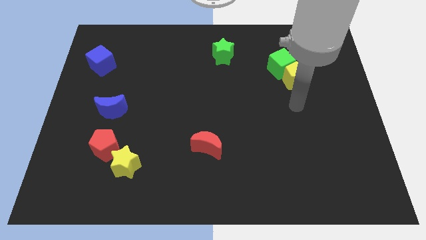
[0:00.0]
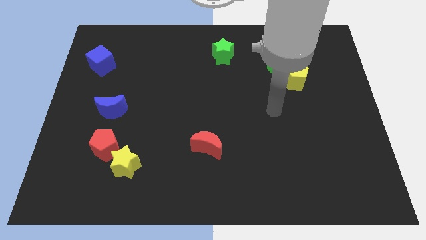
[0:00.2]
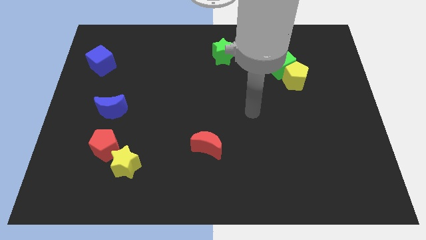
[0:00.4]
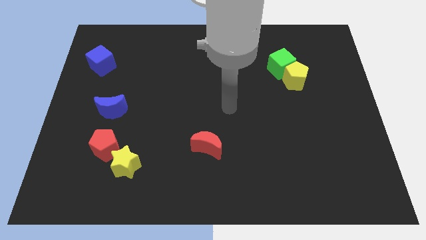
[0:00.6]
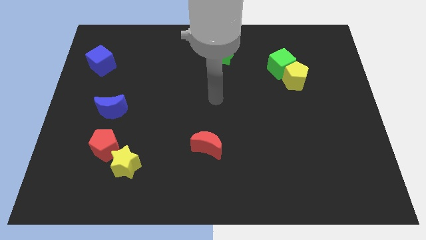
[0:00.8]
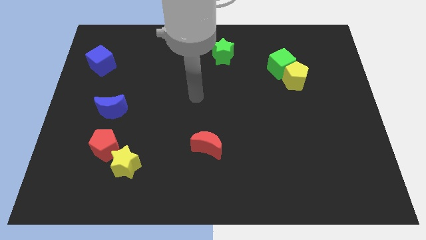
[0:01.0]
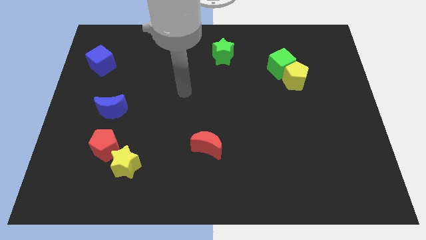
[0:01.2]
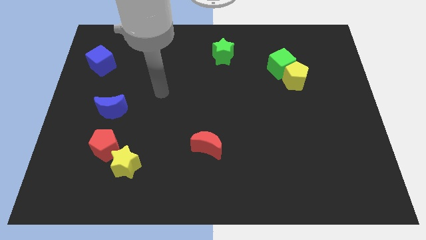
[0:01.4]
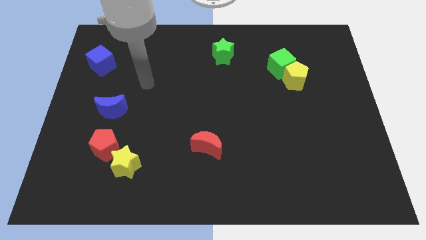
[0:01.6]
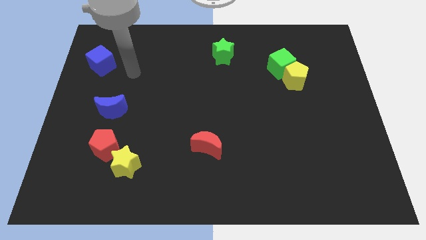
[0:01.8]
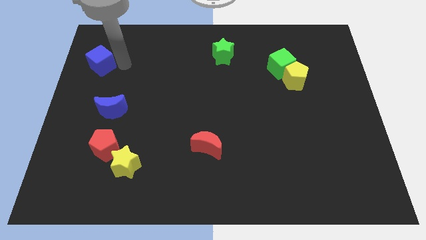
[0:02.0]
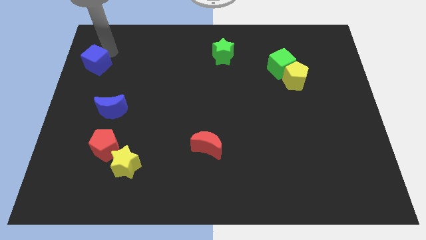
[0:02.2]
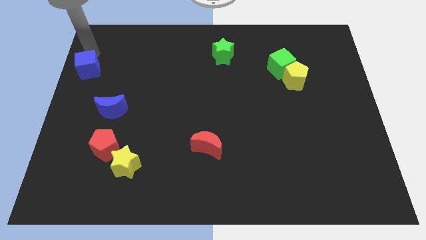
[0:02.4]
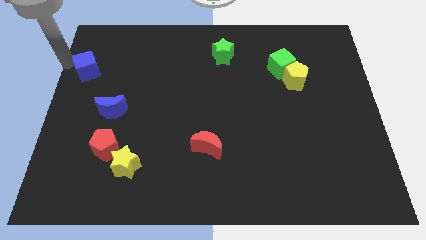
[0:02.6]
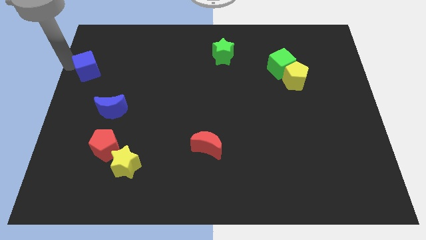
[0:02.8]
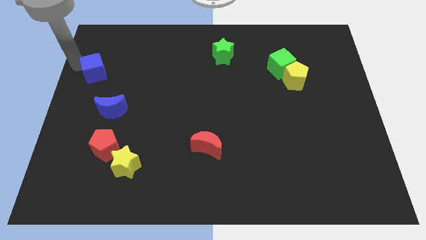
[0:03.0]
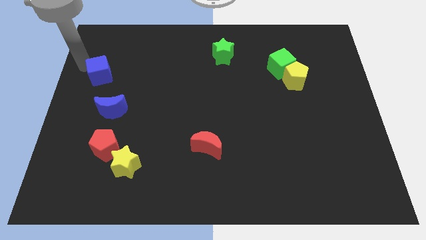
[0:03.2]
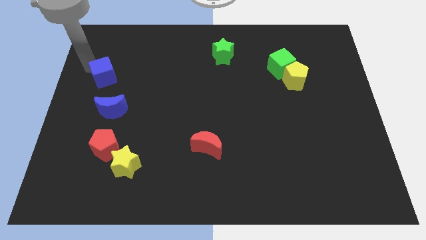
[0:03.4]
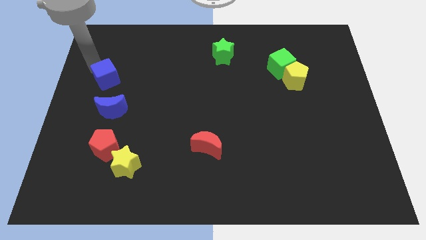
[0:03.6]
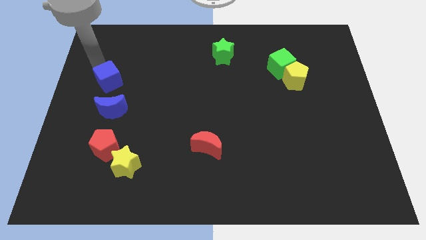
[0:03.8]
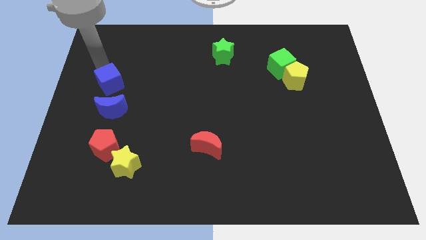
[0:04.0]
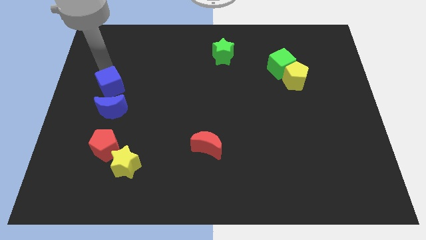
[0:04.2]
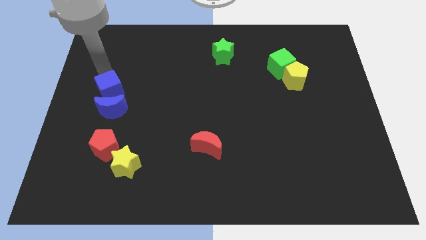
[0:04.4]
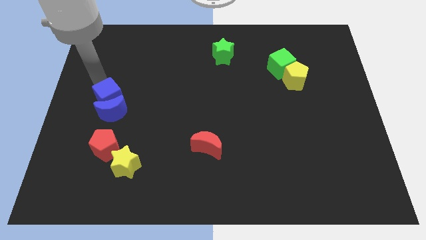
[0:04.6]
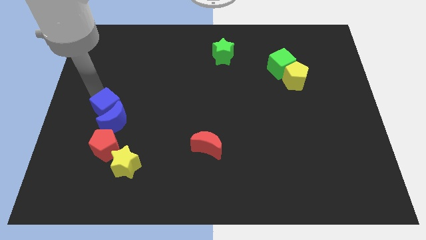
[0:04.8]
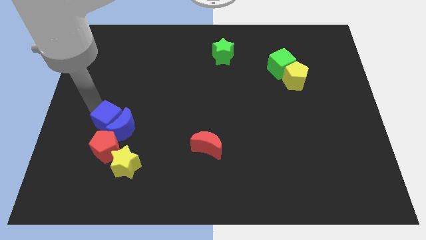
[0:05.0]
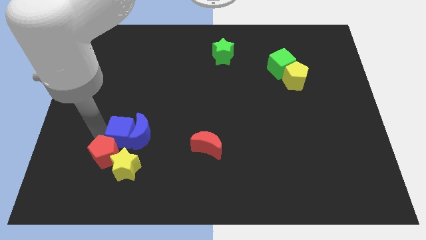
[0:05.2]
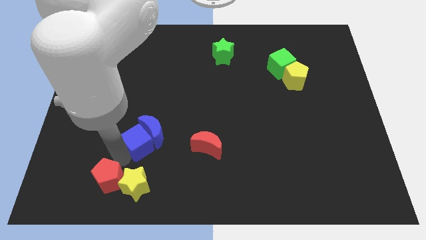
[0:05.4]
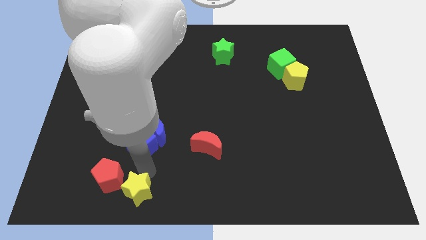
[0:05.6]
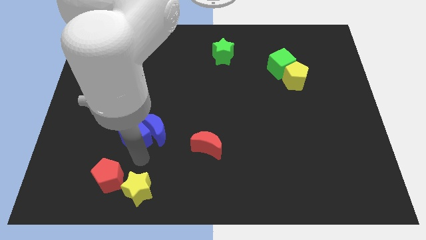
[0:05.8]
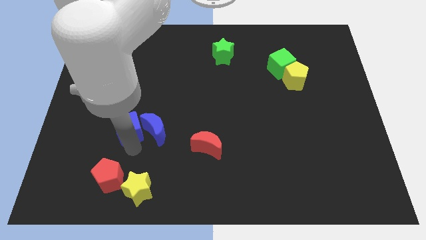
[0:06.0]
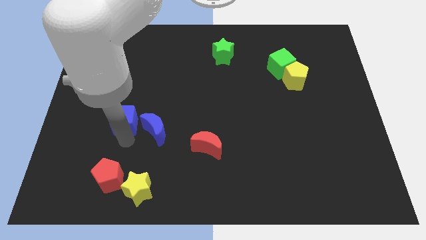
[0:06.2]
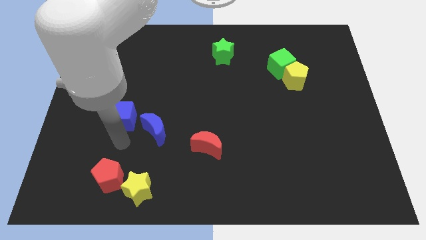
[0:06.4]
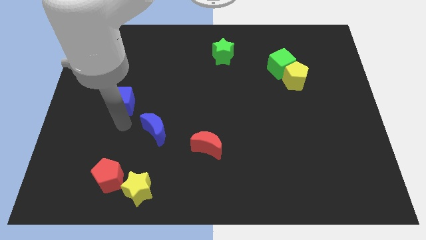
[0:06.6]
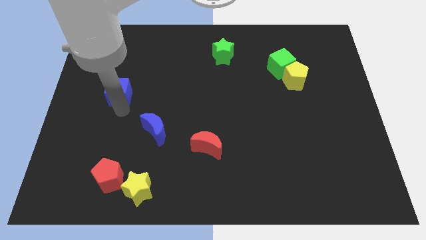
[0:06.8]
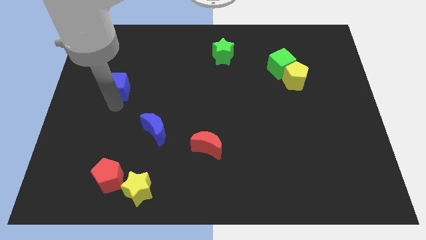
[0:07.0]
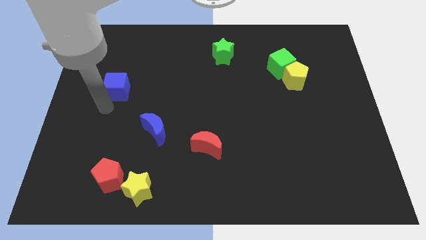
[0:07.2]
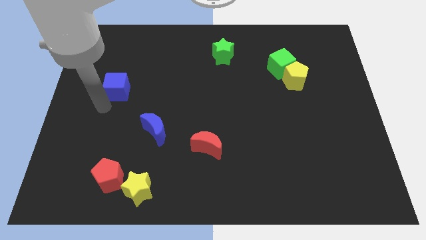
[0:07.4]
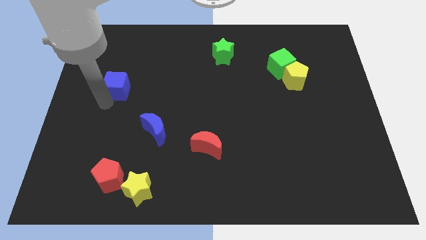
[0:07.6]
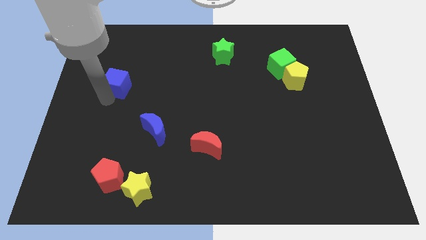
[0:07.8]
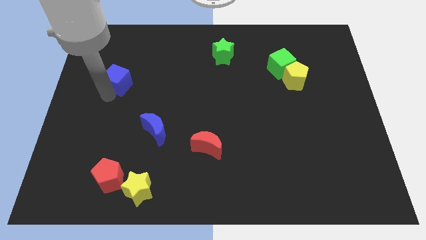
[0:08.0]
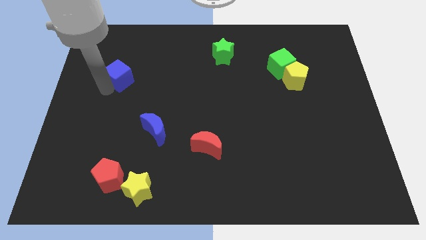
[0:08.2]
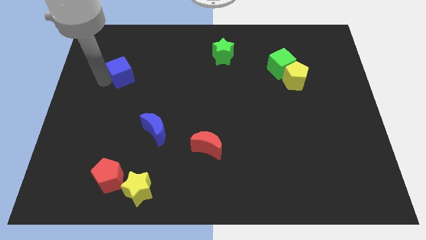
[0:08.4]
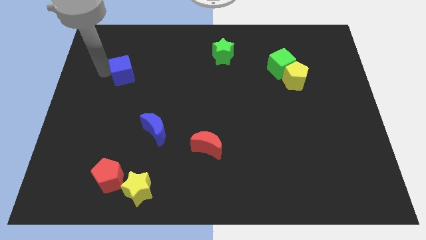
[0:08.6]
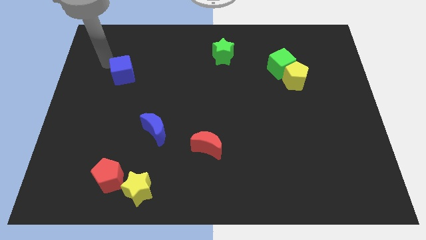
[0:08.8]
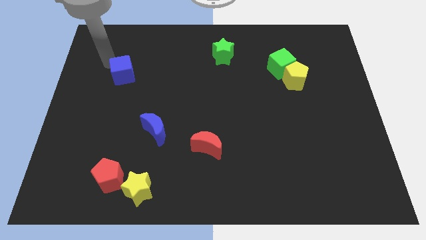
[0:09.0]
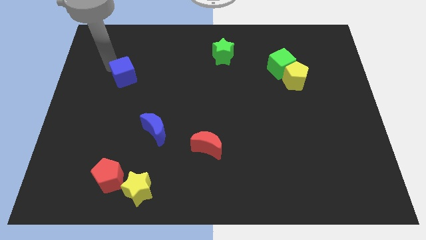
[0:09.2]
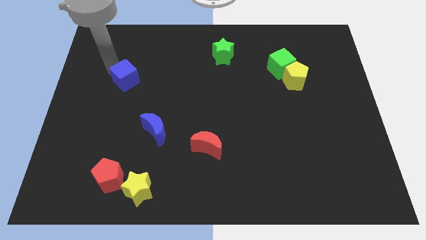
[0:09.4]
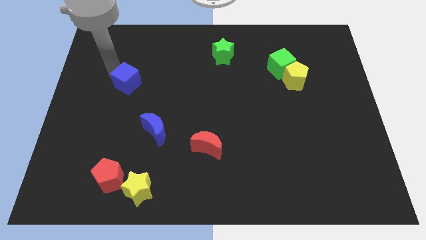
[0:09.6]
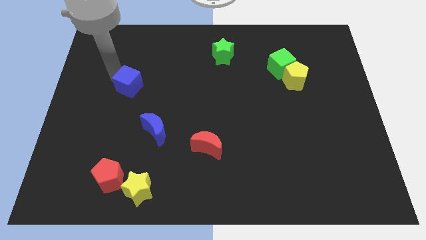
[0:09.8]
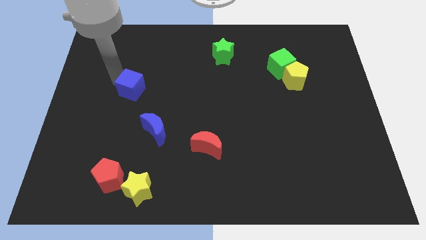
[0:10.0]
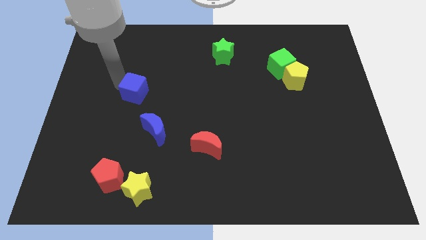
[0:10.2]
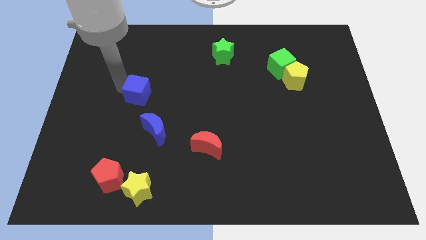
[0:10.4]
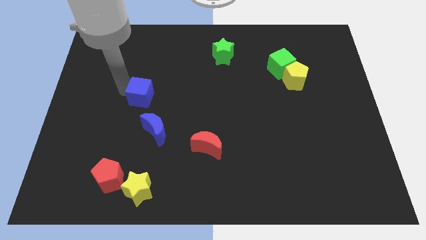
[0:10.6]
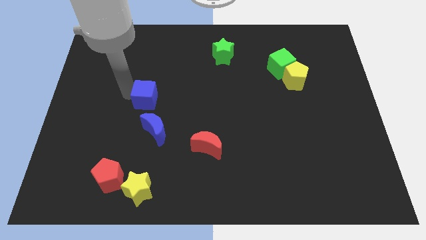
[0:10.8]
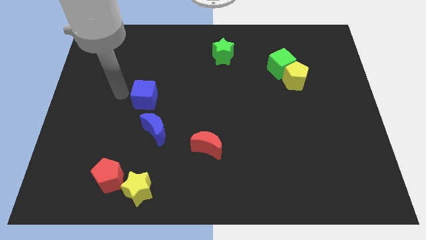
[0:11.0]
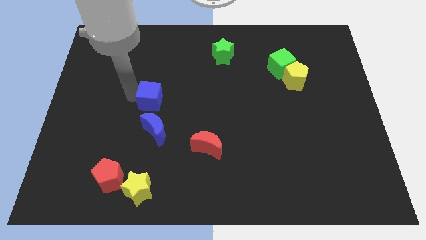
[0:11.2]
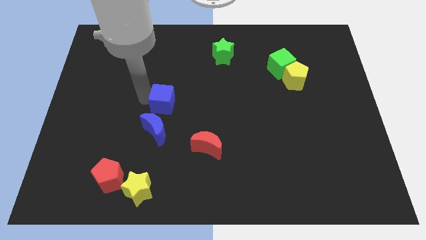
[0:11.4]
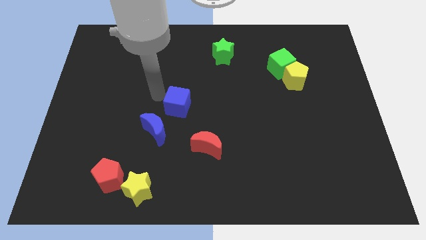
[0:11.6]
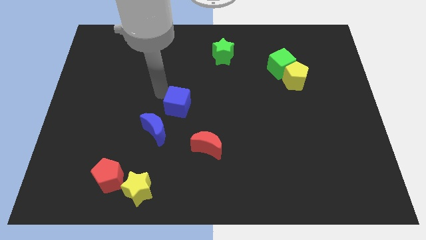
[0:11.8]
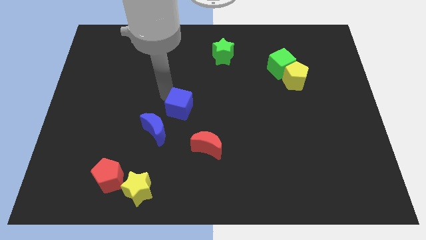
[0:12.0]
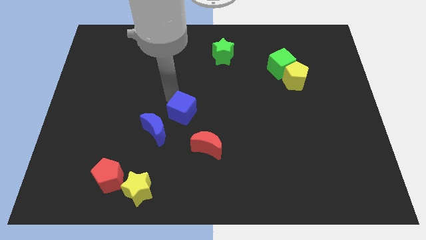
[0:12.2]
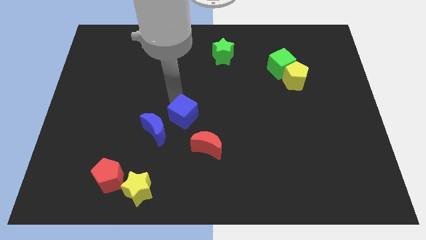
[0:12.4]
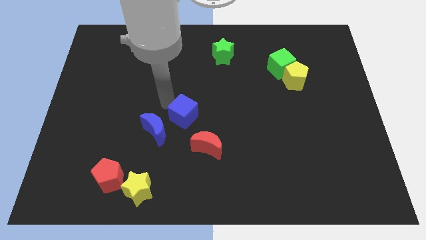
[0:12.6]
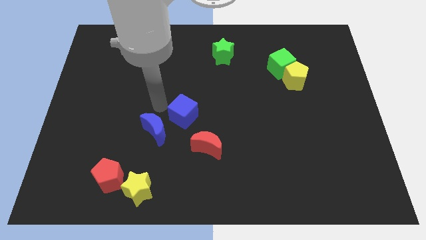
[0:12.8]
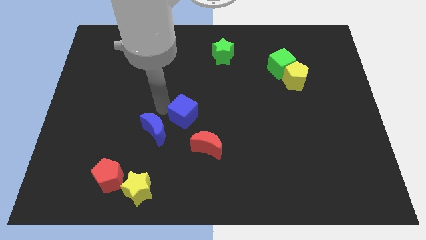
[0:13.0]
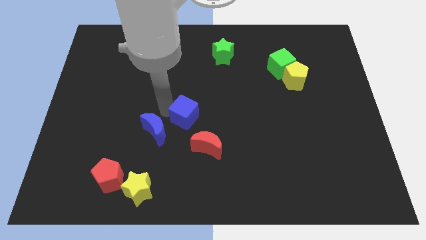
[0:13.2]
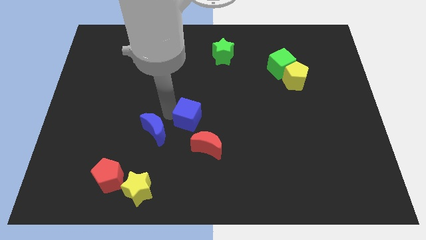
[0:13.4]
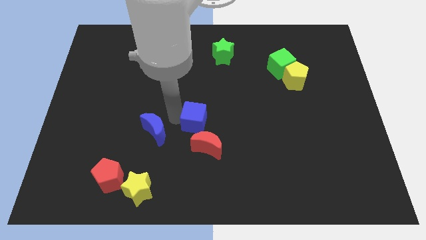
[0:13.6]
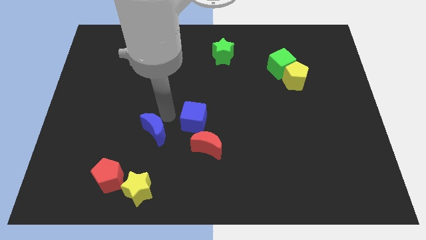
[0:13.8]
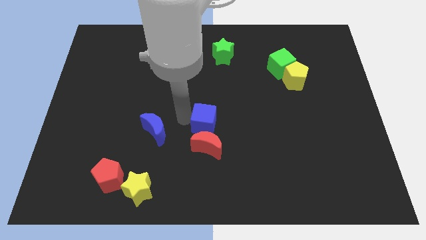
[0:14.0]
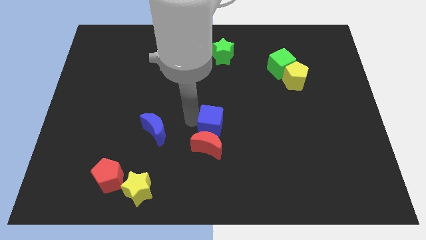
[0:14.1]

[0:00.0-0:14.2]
put the blue cube diagonally up and to the right of the red moon

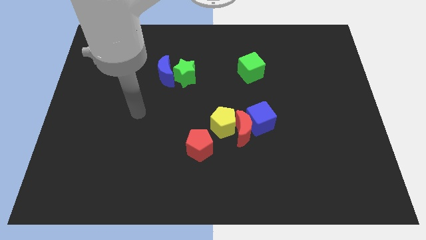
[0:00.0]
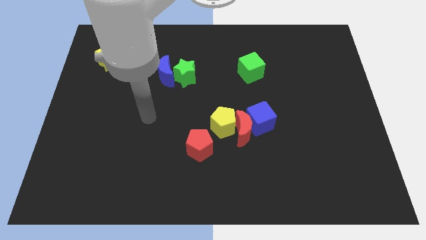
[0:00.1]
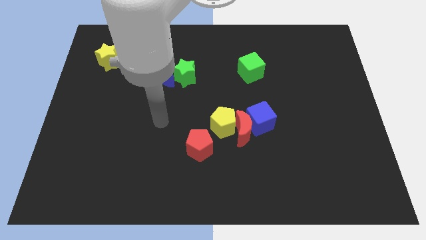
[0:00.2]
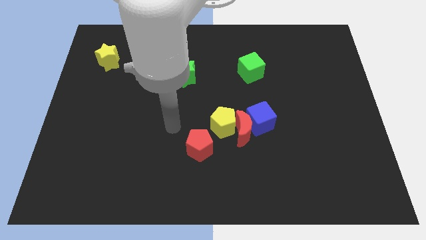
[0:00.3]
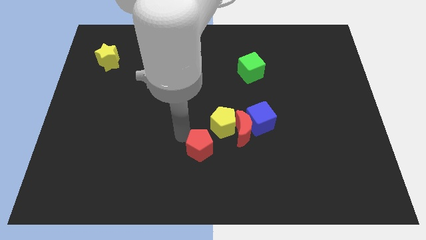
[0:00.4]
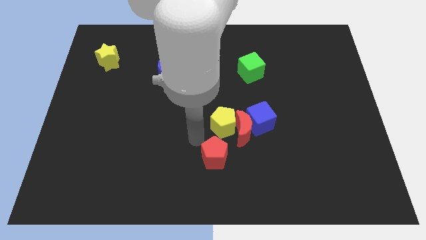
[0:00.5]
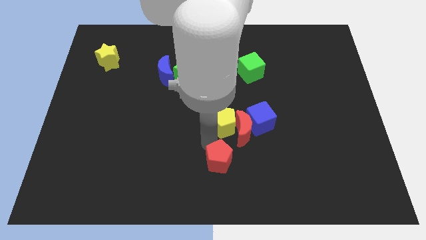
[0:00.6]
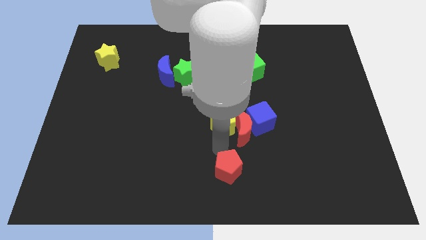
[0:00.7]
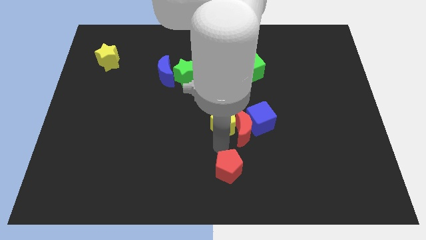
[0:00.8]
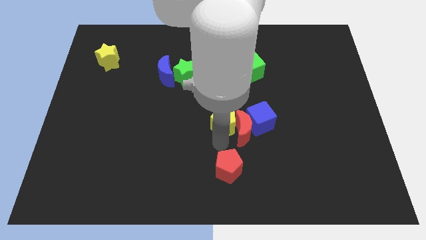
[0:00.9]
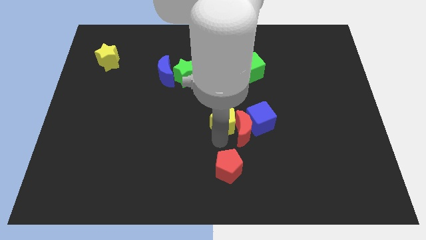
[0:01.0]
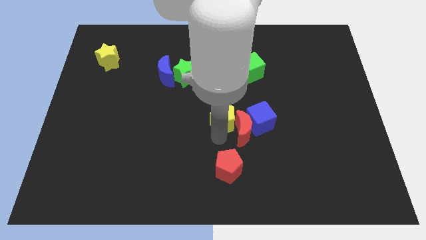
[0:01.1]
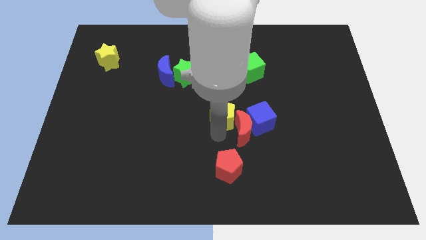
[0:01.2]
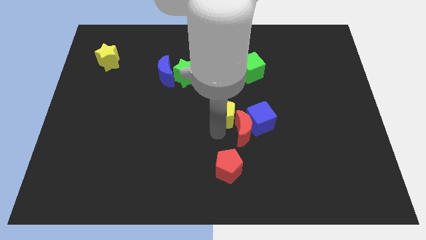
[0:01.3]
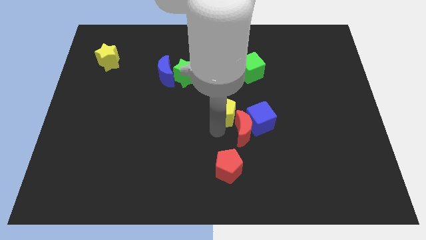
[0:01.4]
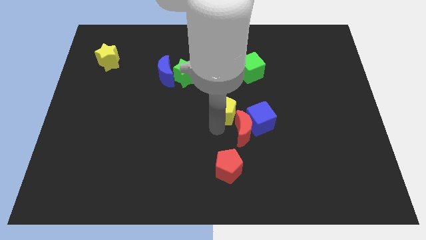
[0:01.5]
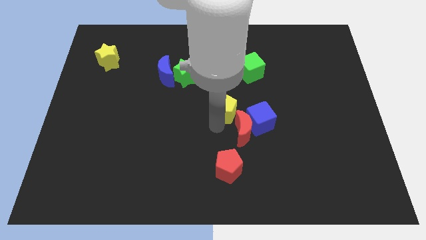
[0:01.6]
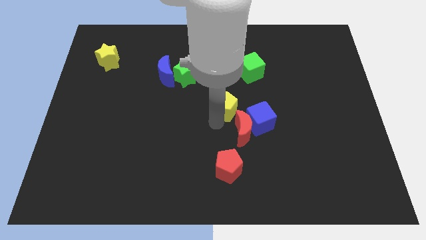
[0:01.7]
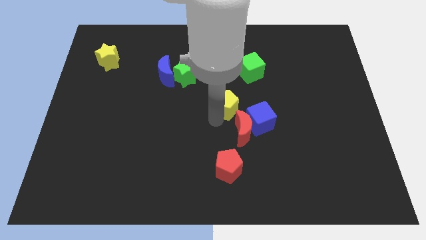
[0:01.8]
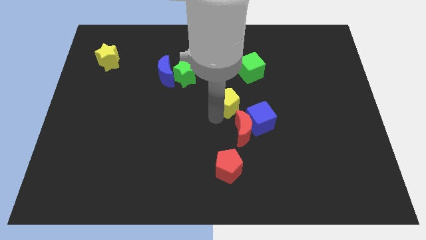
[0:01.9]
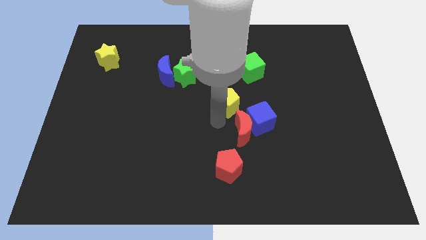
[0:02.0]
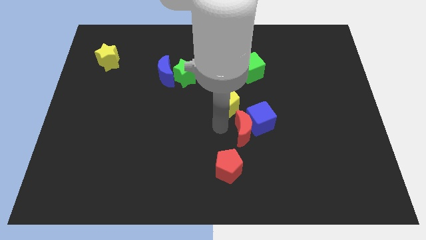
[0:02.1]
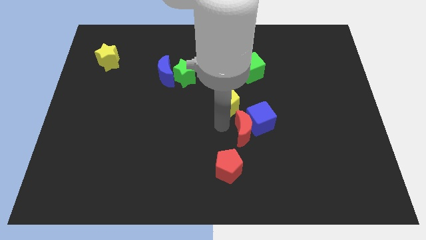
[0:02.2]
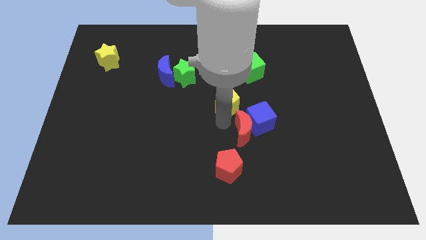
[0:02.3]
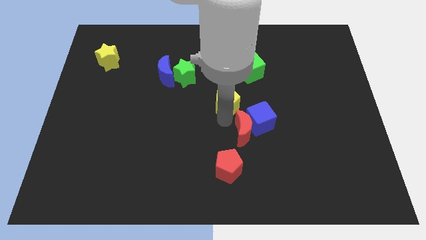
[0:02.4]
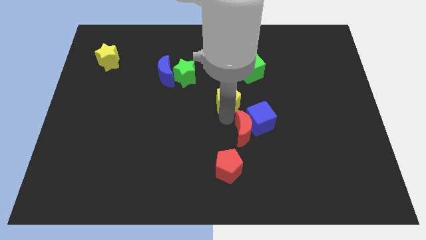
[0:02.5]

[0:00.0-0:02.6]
push the yellow pentagon diagonally down and to the left of the green cube
